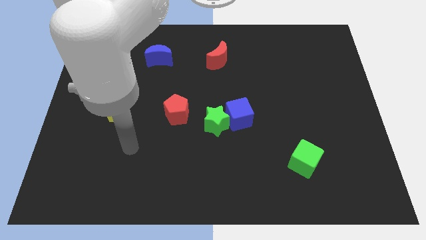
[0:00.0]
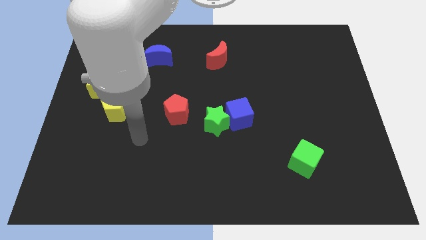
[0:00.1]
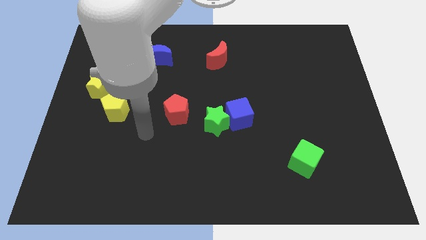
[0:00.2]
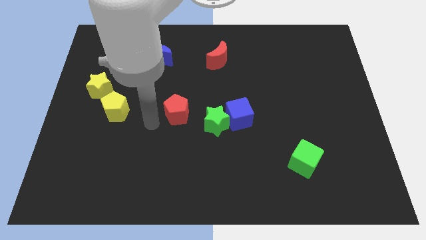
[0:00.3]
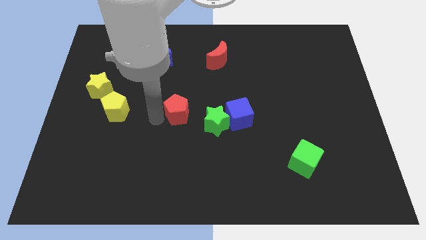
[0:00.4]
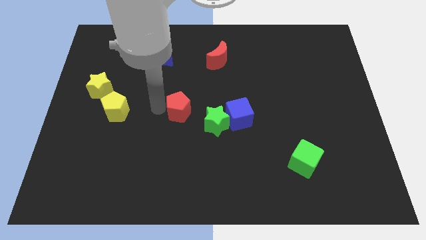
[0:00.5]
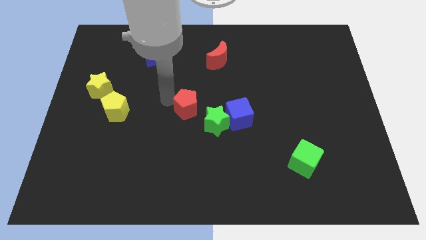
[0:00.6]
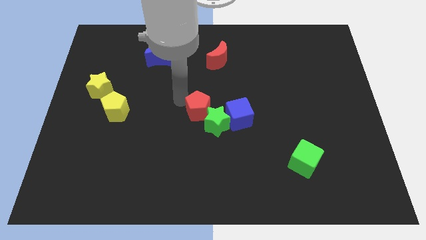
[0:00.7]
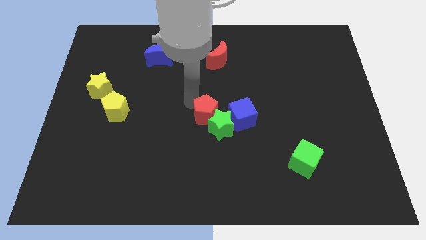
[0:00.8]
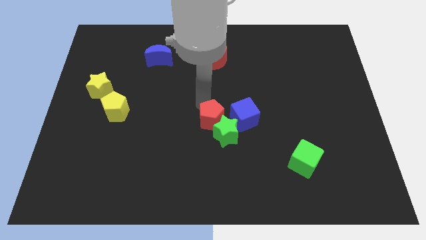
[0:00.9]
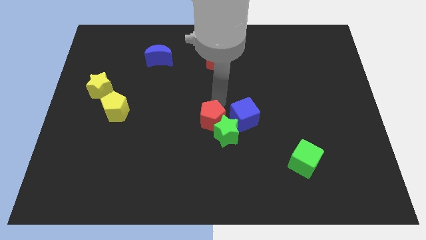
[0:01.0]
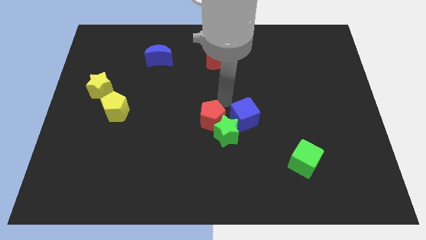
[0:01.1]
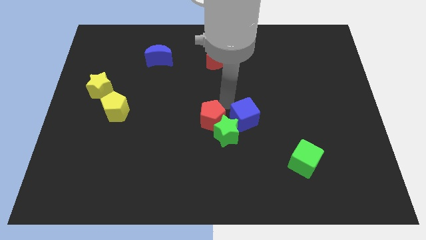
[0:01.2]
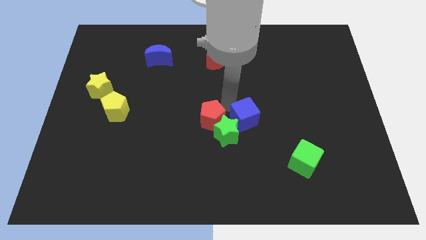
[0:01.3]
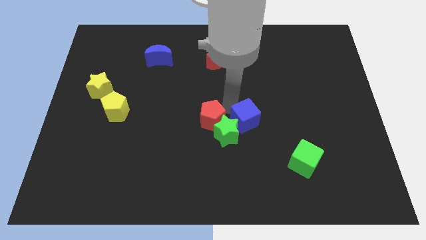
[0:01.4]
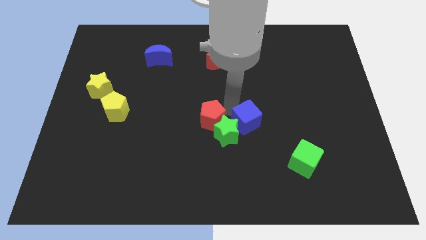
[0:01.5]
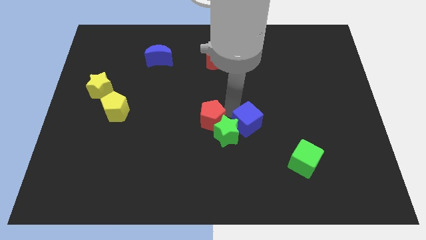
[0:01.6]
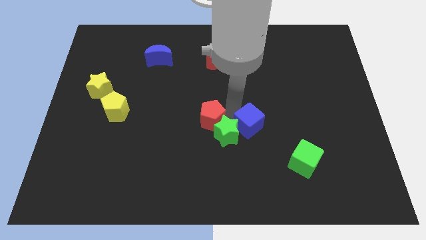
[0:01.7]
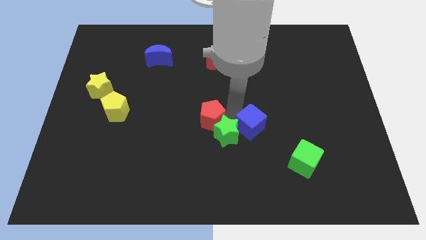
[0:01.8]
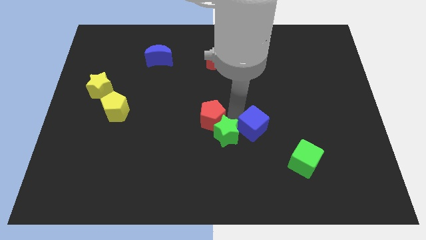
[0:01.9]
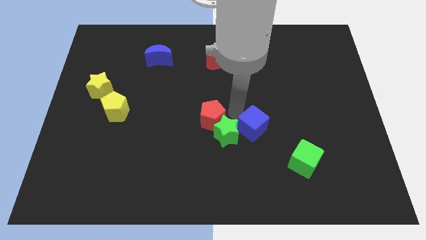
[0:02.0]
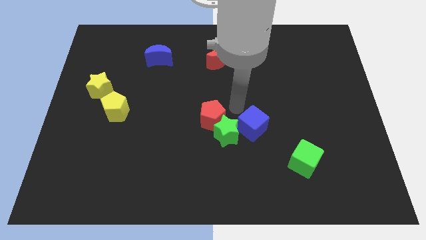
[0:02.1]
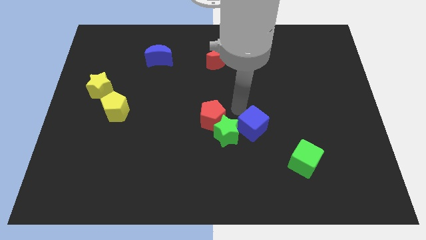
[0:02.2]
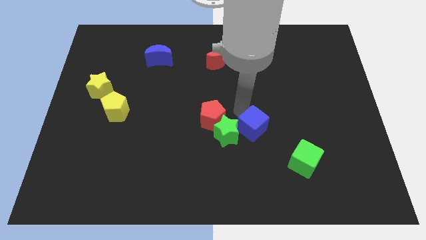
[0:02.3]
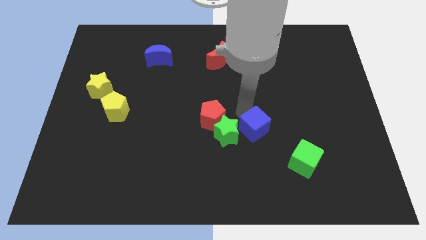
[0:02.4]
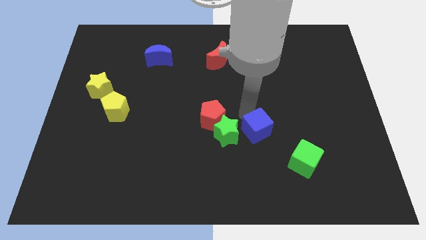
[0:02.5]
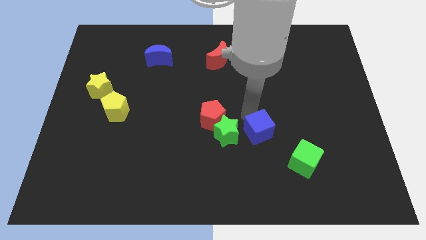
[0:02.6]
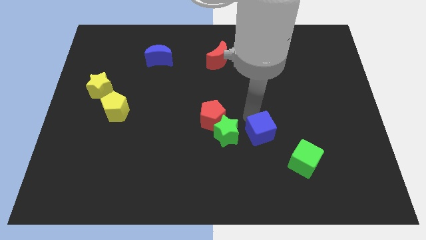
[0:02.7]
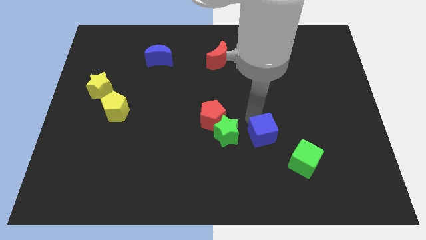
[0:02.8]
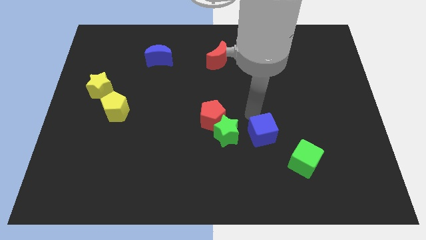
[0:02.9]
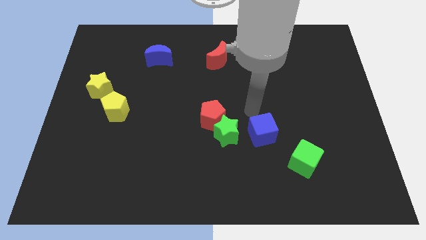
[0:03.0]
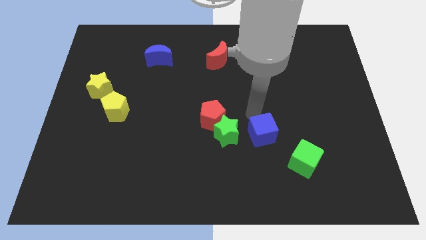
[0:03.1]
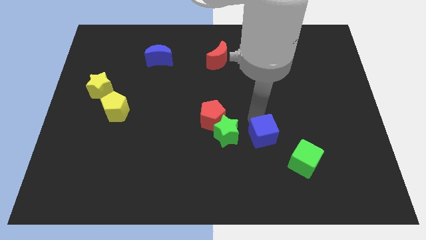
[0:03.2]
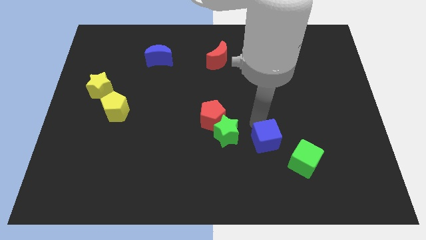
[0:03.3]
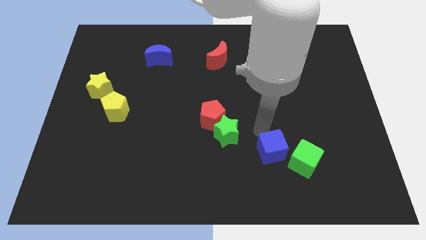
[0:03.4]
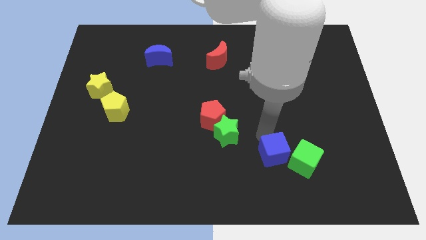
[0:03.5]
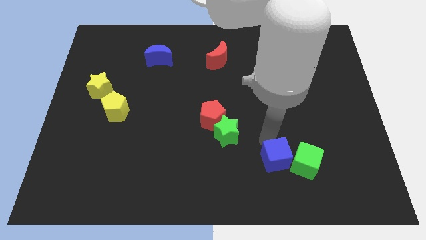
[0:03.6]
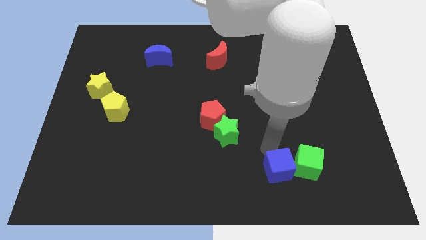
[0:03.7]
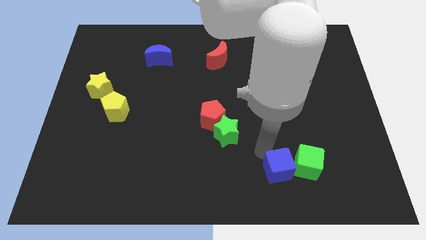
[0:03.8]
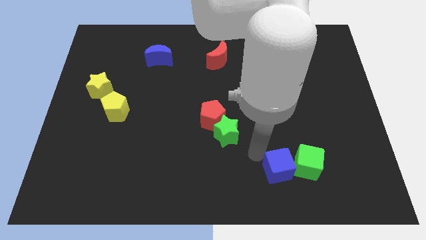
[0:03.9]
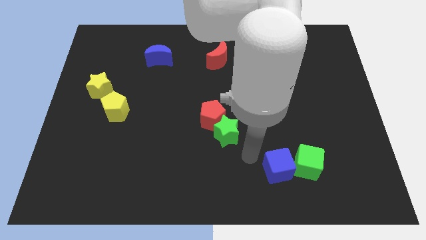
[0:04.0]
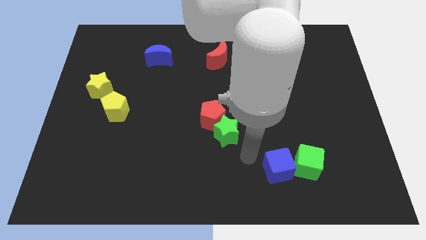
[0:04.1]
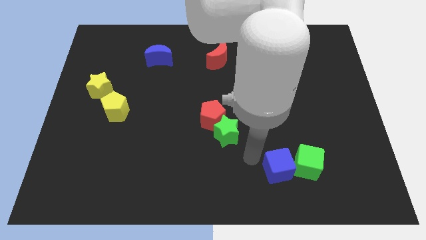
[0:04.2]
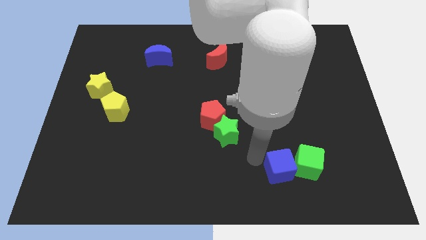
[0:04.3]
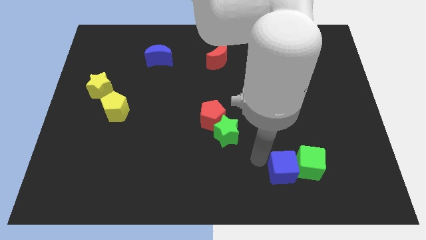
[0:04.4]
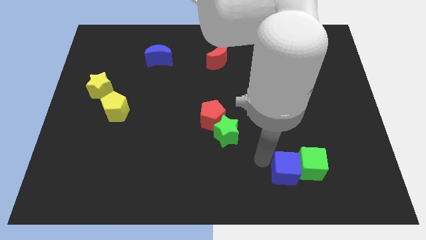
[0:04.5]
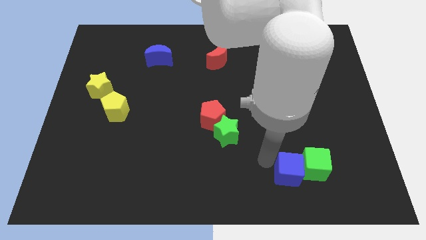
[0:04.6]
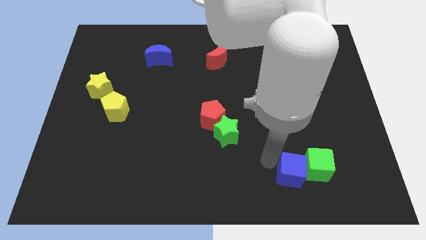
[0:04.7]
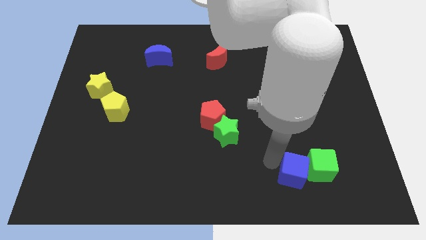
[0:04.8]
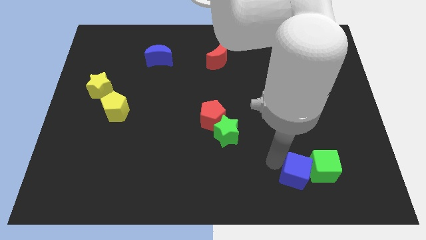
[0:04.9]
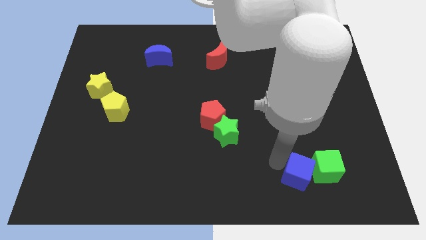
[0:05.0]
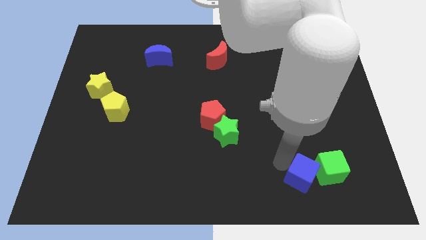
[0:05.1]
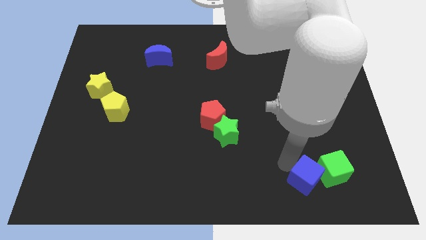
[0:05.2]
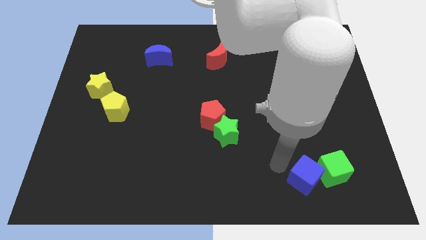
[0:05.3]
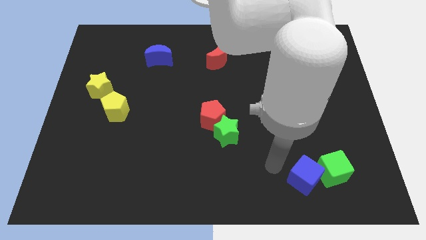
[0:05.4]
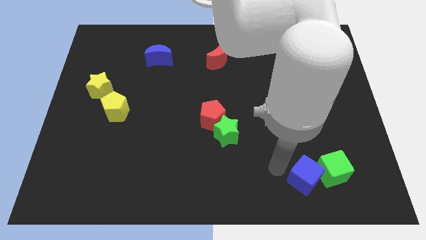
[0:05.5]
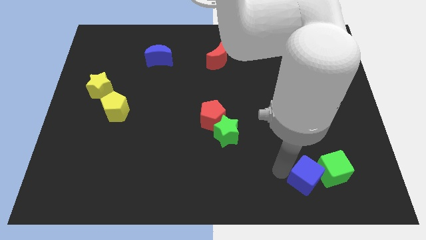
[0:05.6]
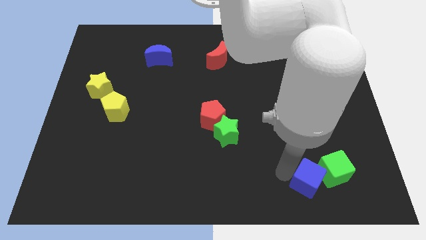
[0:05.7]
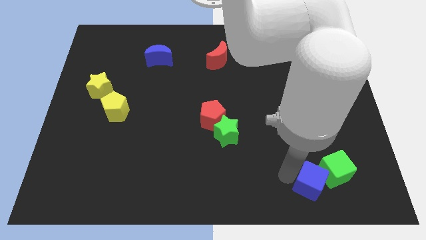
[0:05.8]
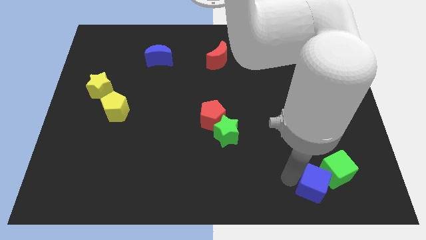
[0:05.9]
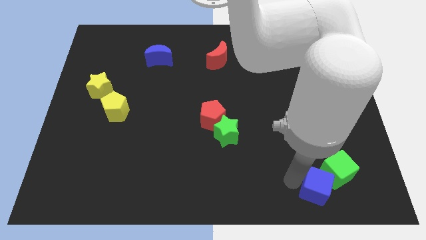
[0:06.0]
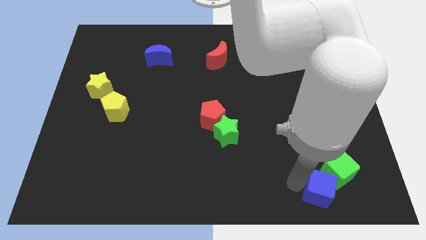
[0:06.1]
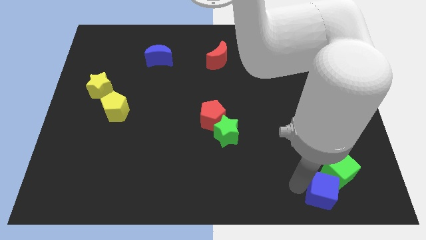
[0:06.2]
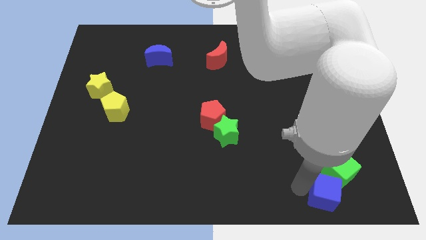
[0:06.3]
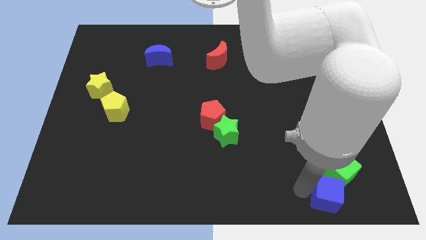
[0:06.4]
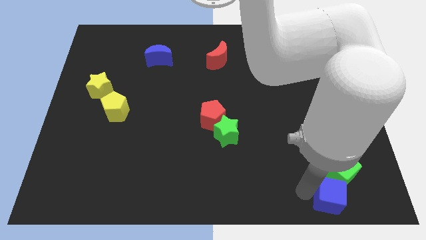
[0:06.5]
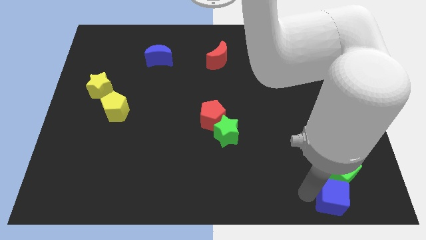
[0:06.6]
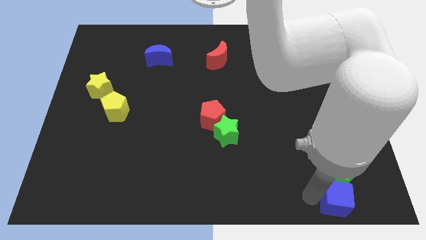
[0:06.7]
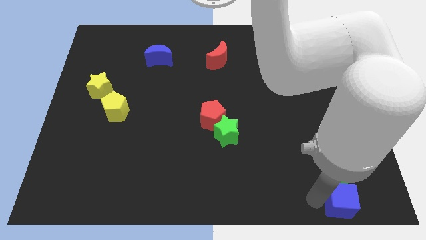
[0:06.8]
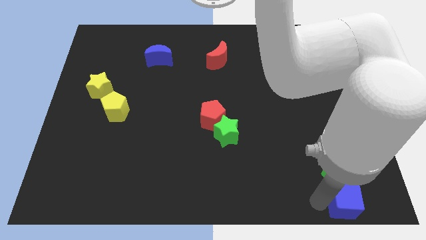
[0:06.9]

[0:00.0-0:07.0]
slide the blue cube to the bottom right of the board
